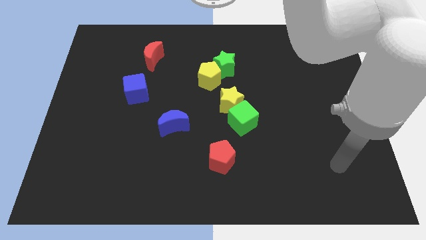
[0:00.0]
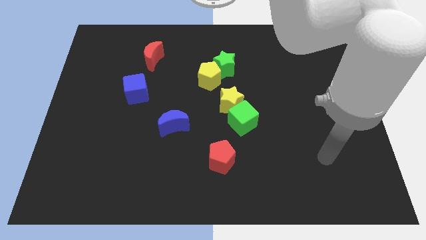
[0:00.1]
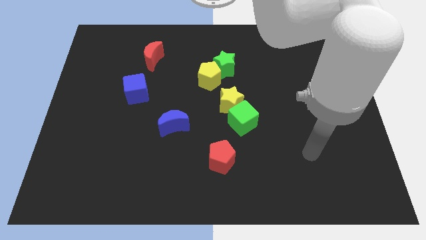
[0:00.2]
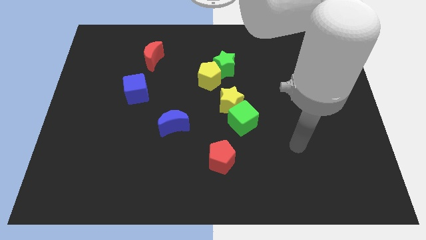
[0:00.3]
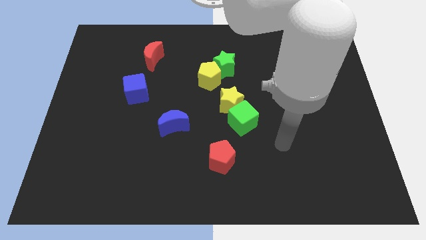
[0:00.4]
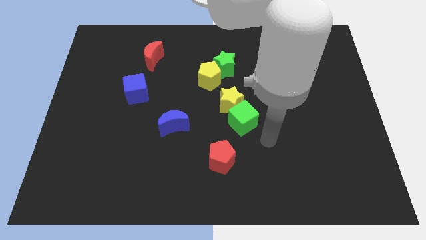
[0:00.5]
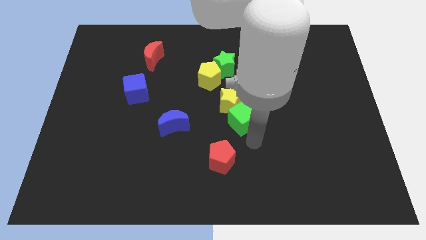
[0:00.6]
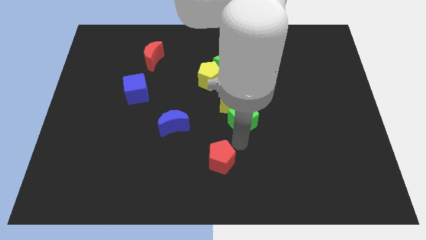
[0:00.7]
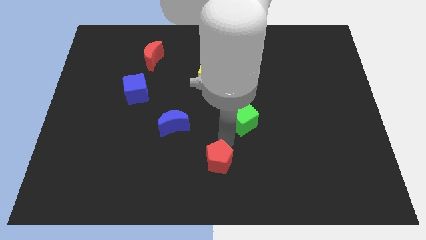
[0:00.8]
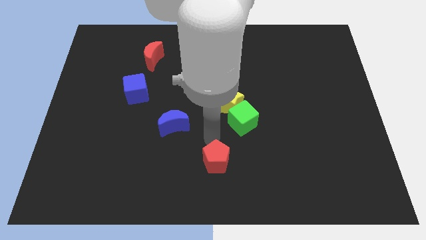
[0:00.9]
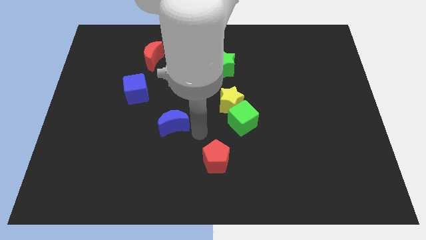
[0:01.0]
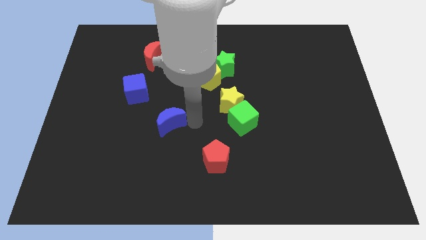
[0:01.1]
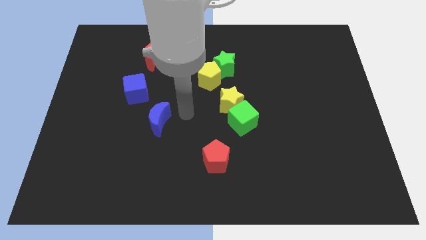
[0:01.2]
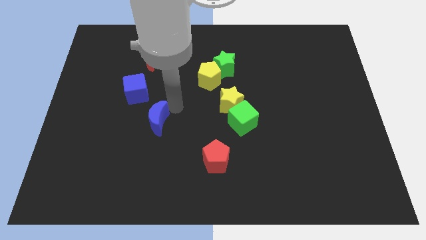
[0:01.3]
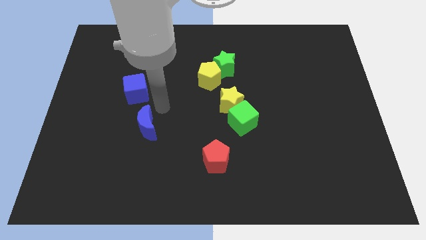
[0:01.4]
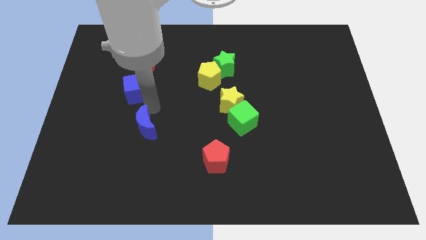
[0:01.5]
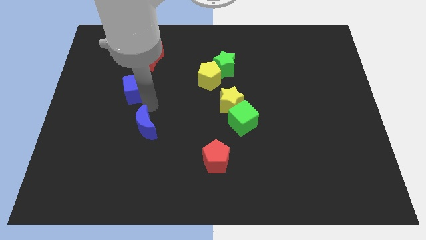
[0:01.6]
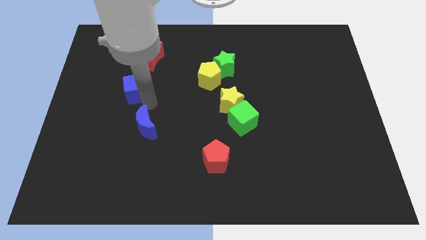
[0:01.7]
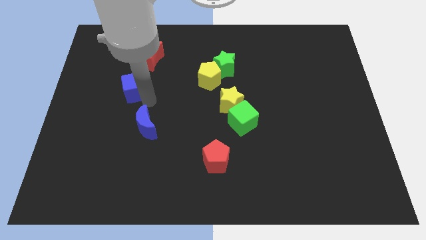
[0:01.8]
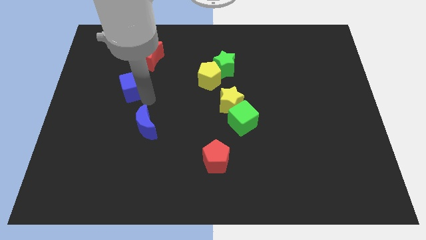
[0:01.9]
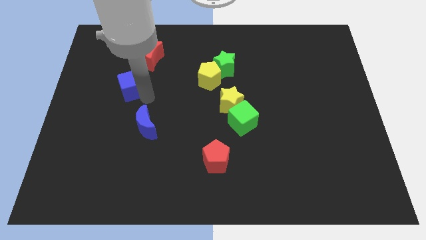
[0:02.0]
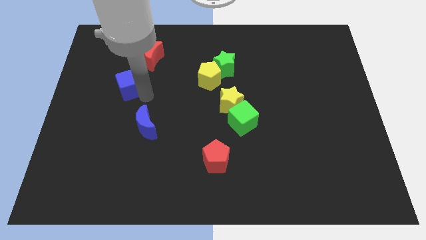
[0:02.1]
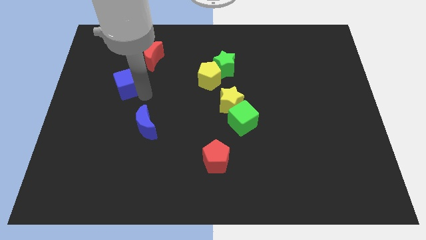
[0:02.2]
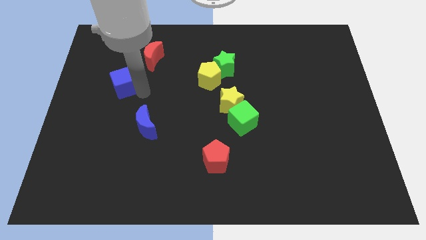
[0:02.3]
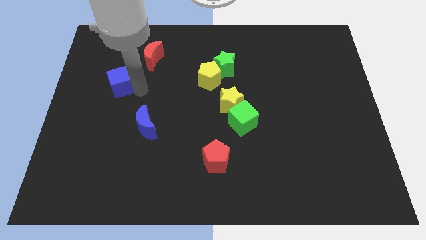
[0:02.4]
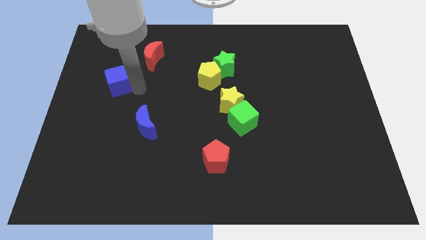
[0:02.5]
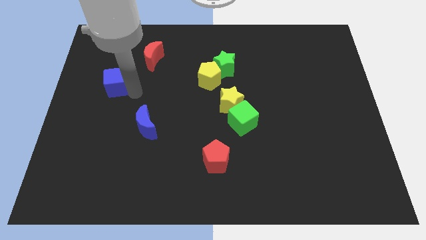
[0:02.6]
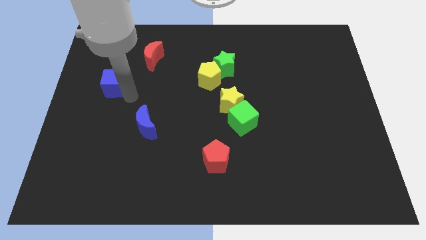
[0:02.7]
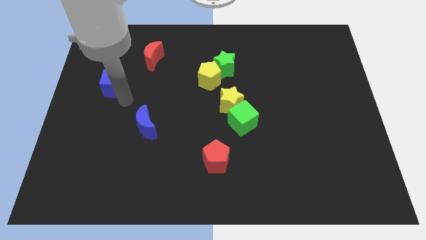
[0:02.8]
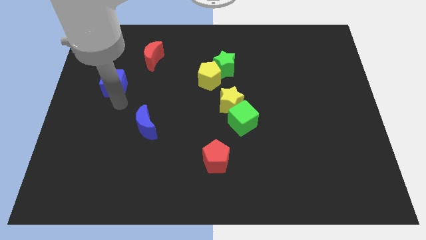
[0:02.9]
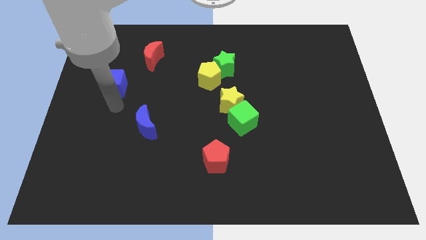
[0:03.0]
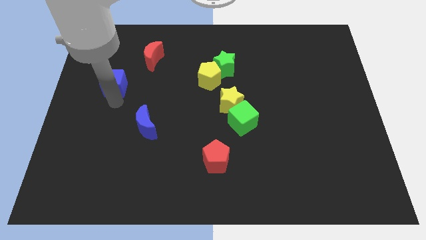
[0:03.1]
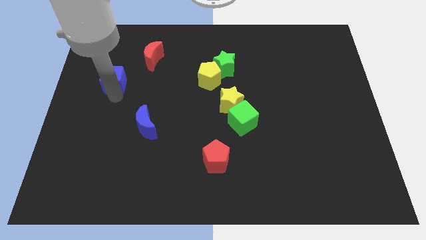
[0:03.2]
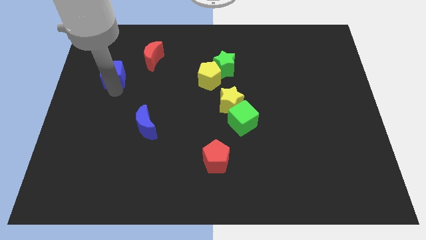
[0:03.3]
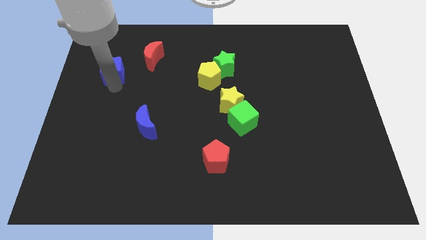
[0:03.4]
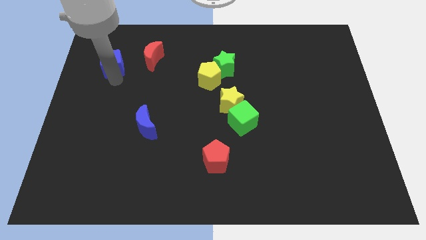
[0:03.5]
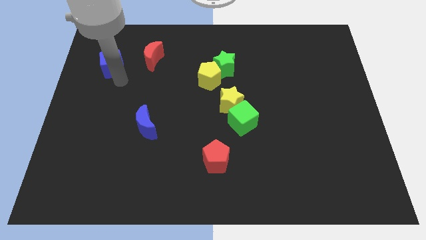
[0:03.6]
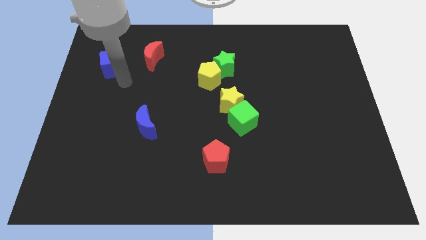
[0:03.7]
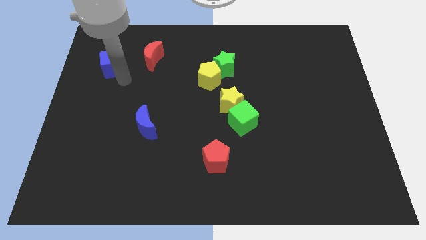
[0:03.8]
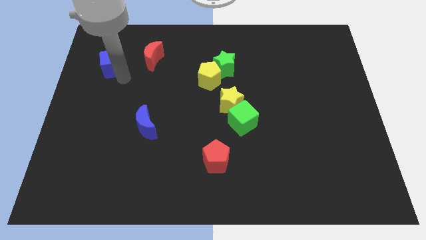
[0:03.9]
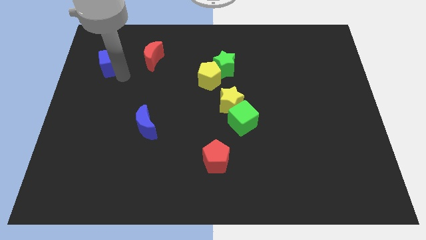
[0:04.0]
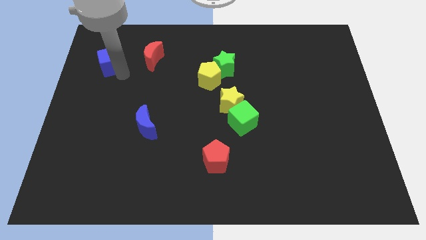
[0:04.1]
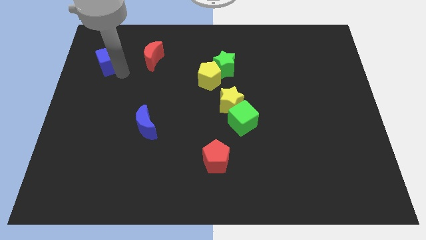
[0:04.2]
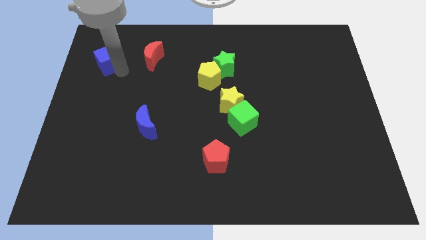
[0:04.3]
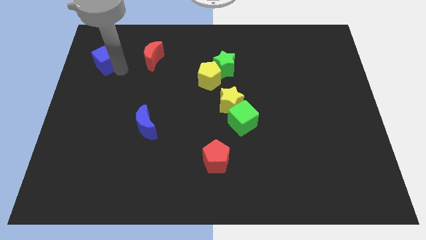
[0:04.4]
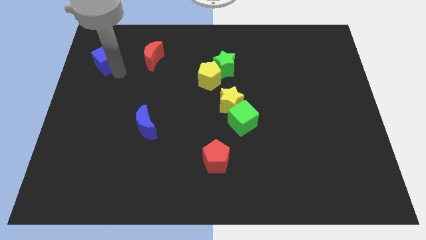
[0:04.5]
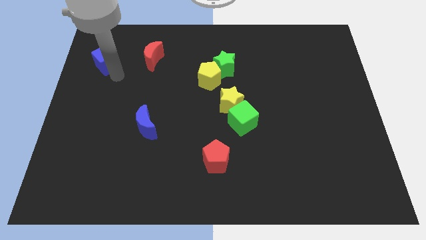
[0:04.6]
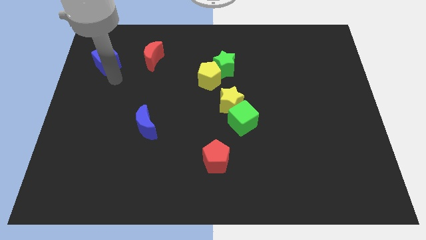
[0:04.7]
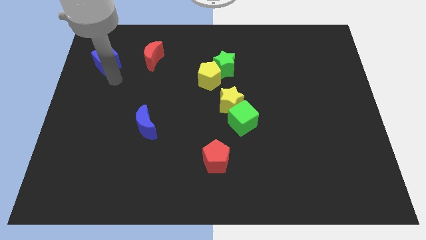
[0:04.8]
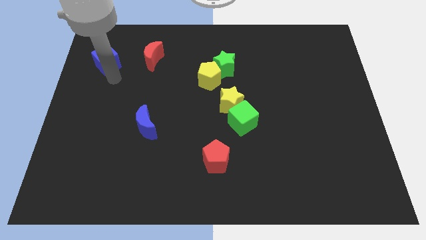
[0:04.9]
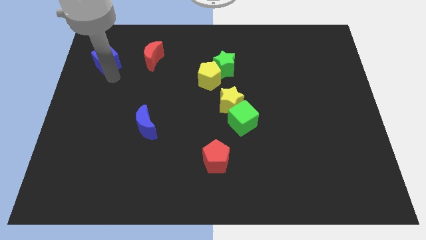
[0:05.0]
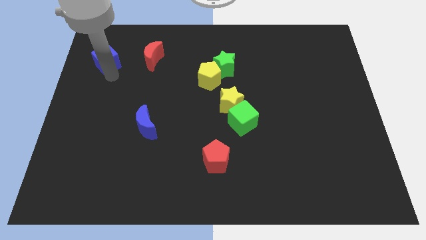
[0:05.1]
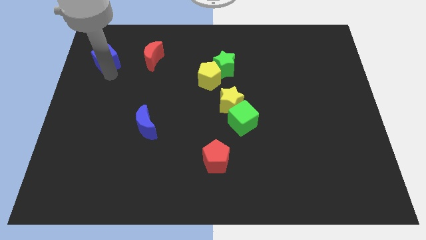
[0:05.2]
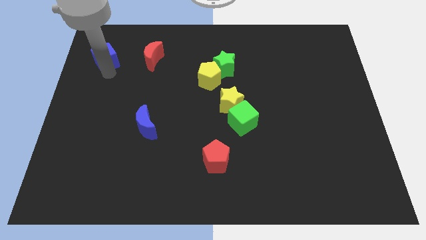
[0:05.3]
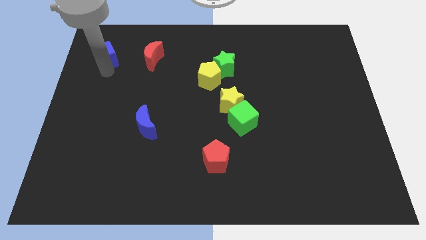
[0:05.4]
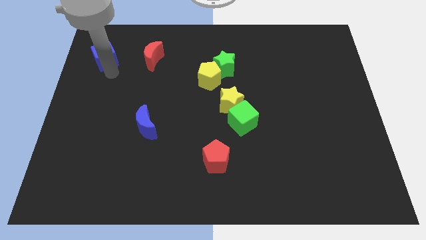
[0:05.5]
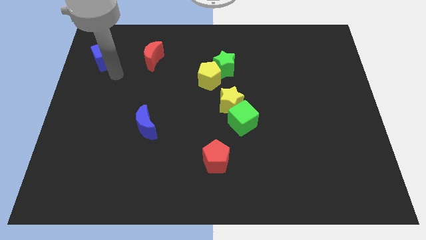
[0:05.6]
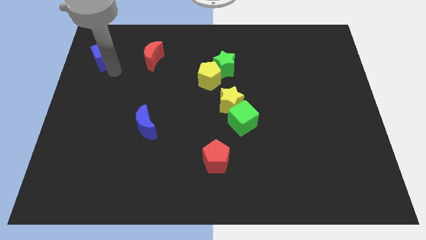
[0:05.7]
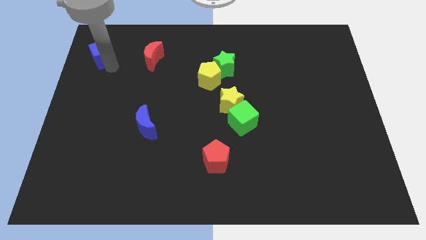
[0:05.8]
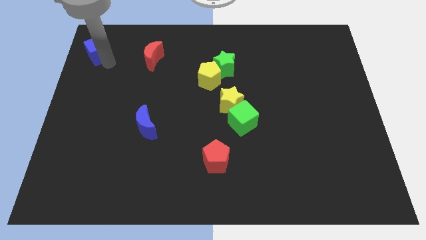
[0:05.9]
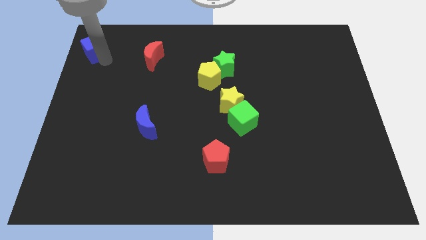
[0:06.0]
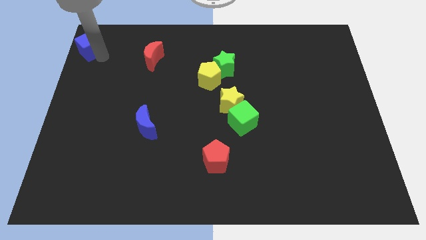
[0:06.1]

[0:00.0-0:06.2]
push the blue cube to the top left of the board

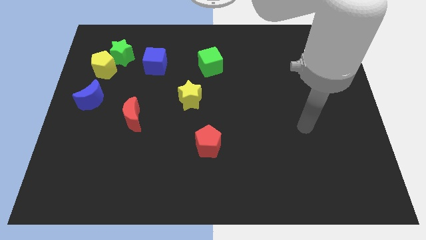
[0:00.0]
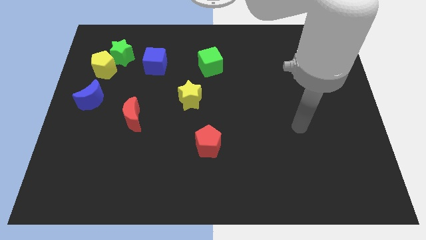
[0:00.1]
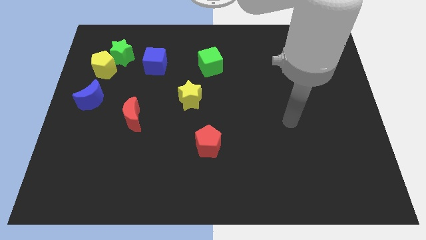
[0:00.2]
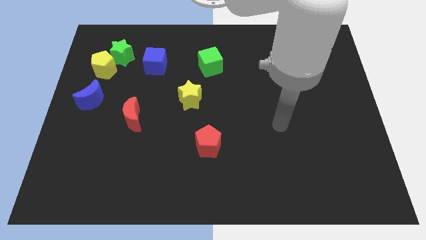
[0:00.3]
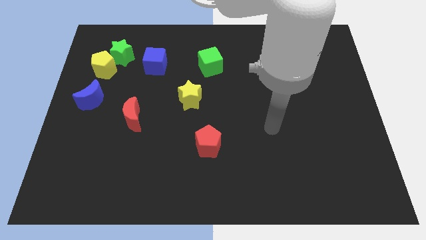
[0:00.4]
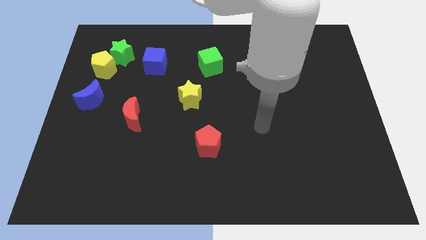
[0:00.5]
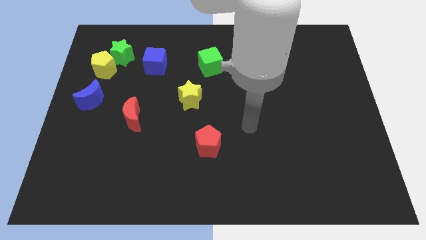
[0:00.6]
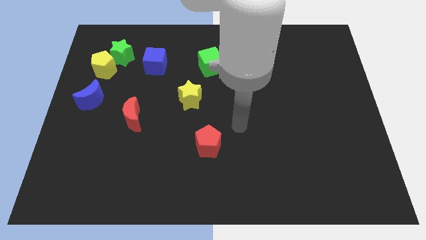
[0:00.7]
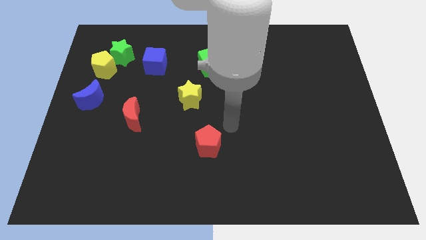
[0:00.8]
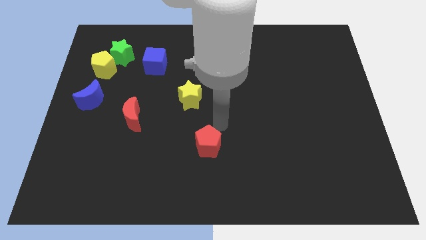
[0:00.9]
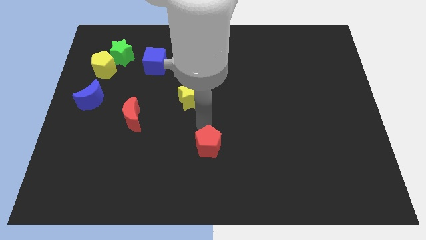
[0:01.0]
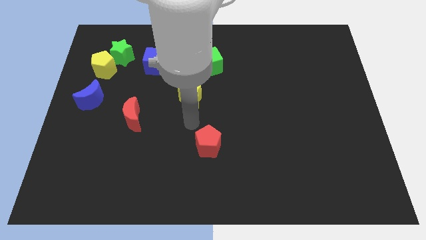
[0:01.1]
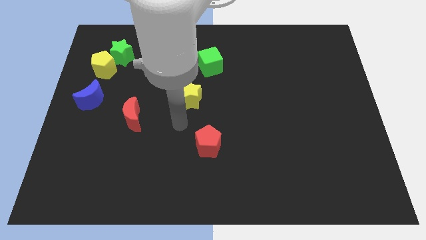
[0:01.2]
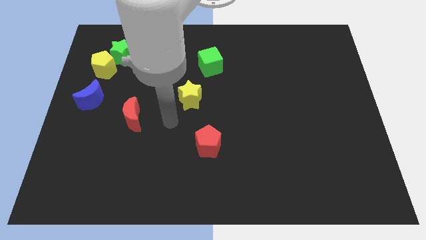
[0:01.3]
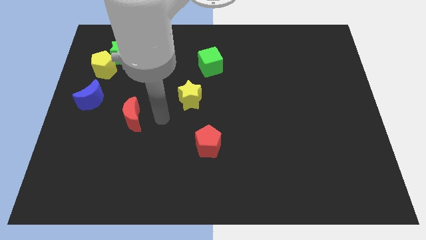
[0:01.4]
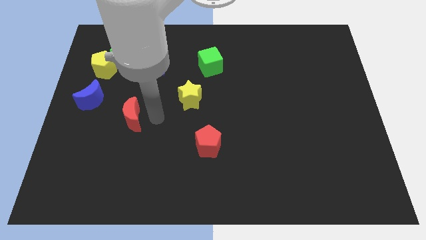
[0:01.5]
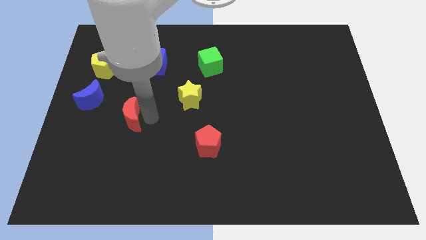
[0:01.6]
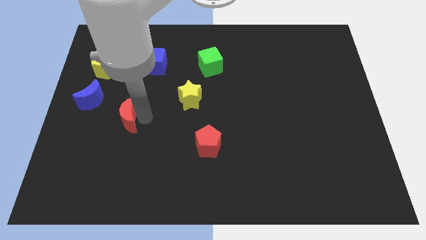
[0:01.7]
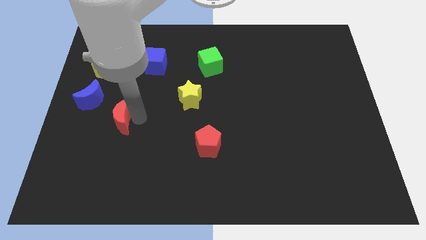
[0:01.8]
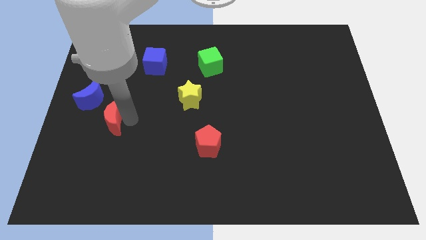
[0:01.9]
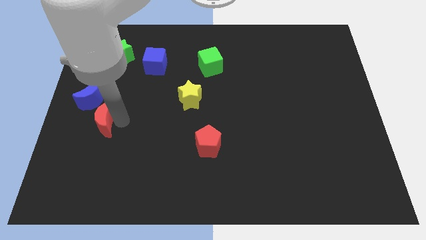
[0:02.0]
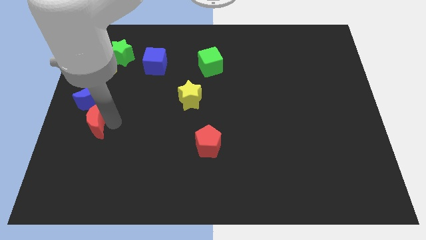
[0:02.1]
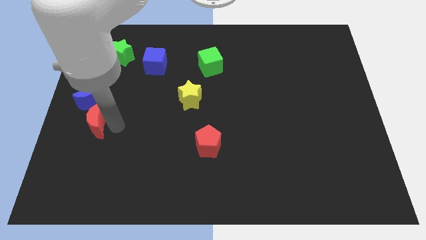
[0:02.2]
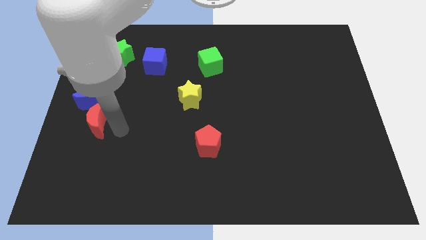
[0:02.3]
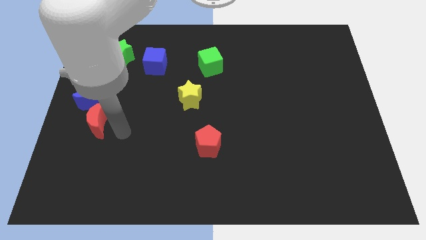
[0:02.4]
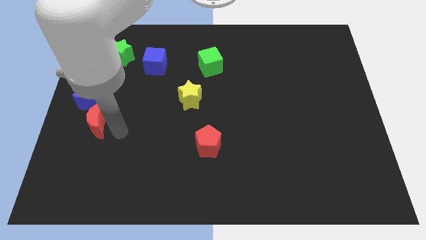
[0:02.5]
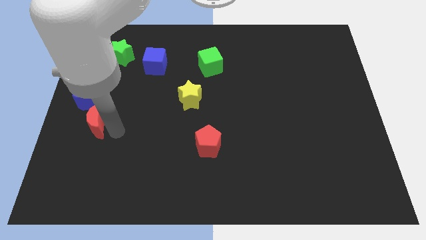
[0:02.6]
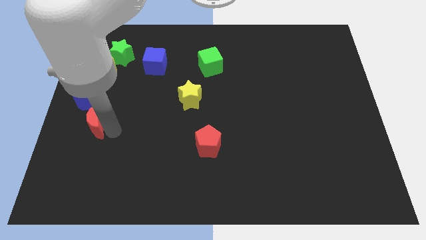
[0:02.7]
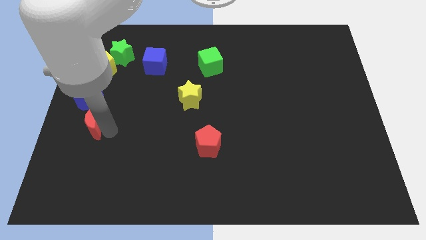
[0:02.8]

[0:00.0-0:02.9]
move the red moon to the center left
